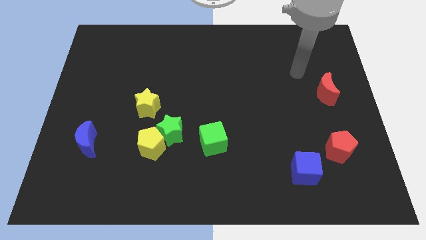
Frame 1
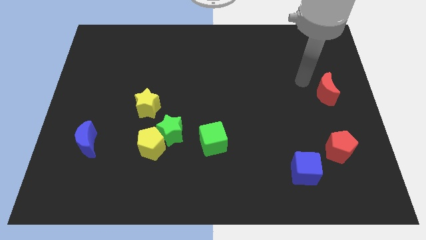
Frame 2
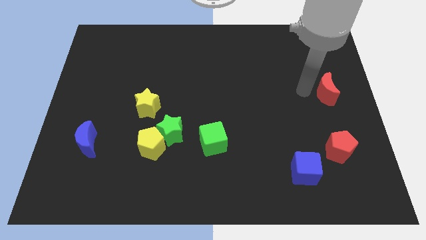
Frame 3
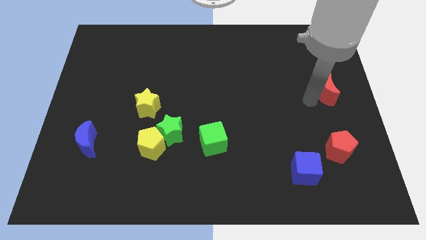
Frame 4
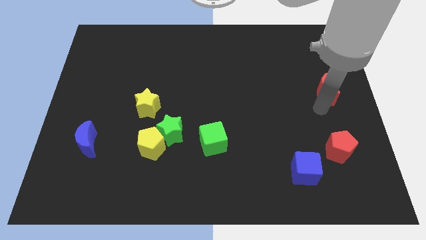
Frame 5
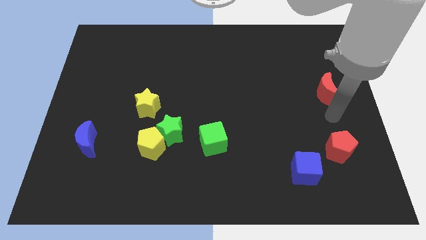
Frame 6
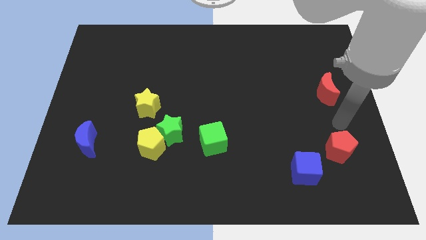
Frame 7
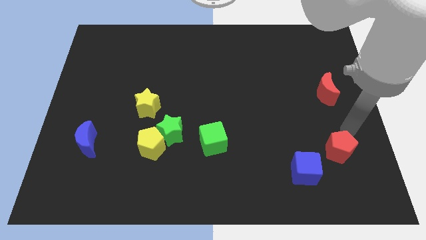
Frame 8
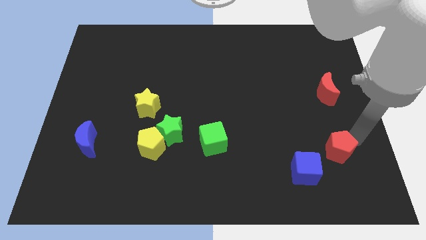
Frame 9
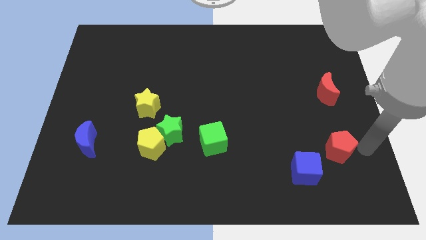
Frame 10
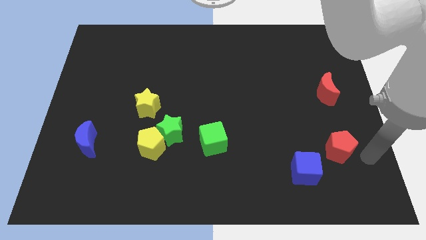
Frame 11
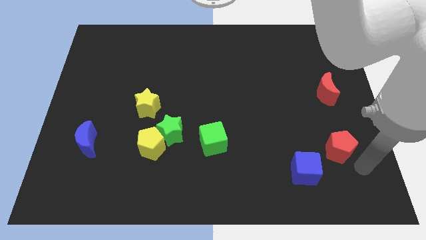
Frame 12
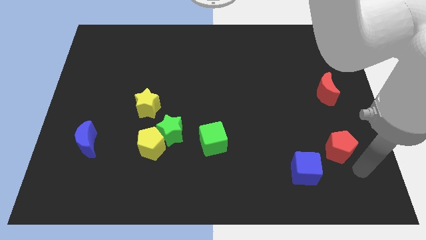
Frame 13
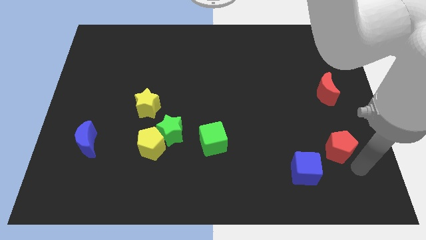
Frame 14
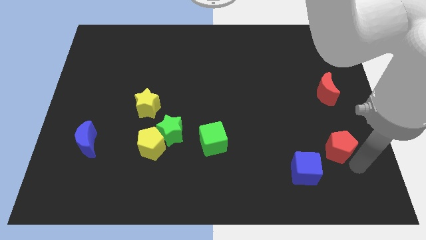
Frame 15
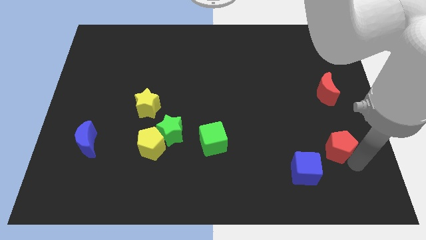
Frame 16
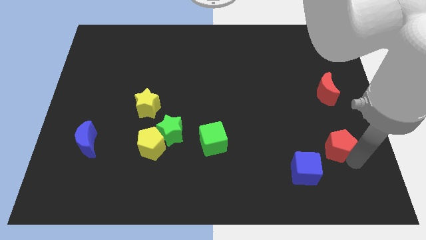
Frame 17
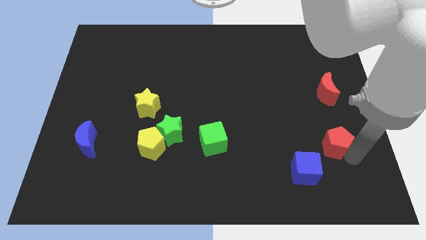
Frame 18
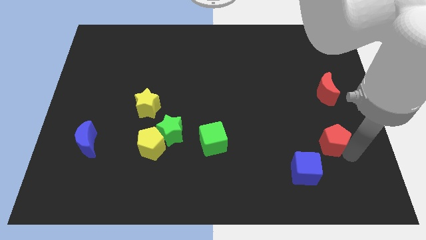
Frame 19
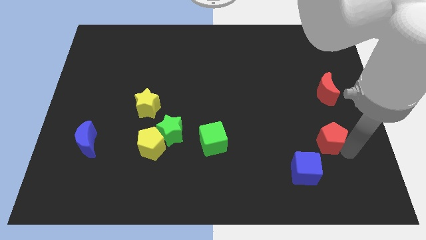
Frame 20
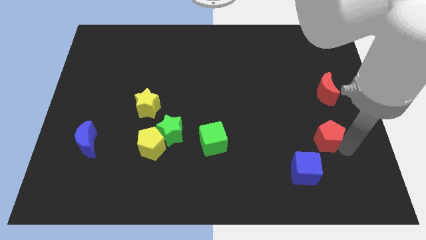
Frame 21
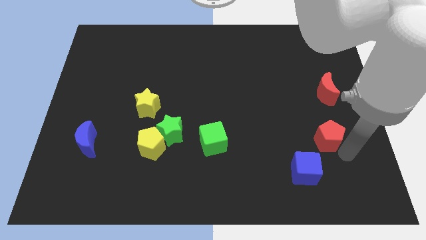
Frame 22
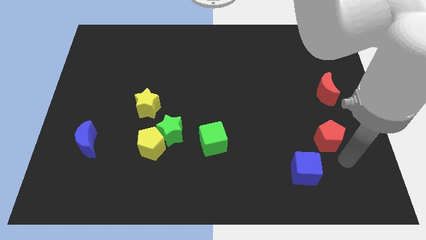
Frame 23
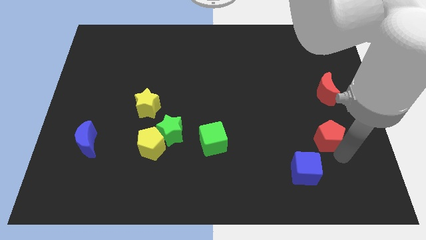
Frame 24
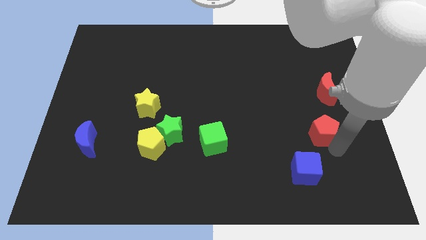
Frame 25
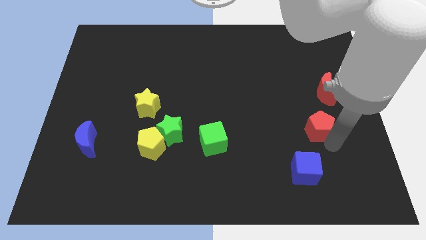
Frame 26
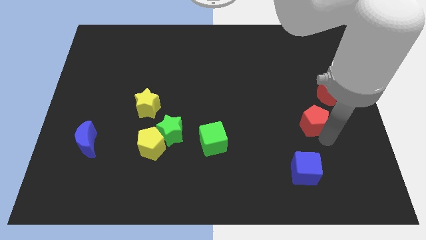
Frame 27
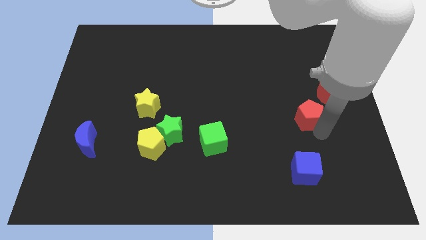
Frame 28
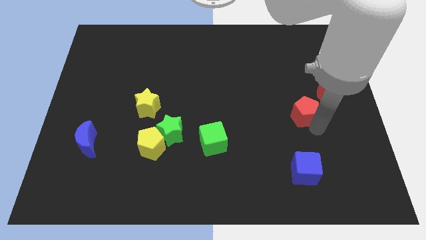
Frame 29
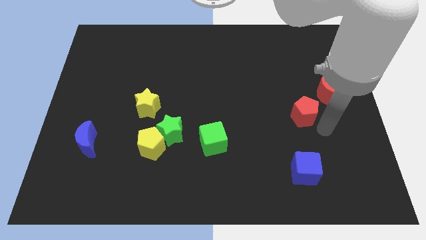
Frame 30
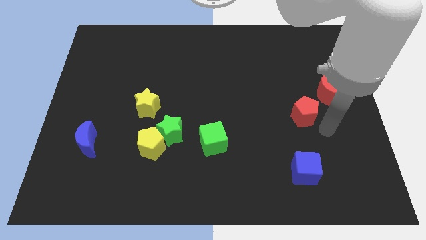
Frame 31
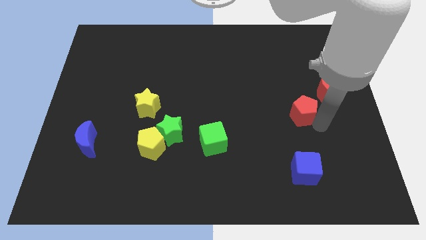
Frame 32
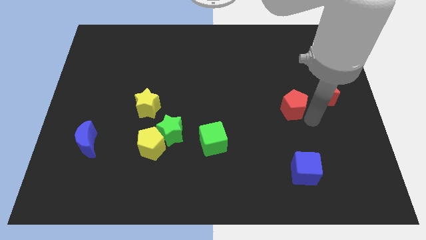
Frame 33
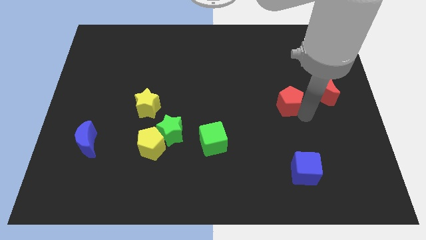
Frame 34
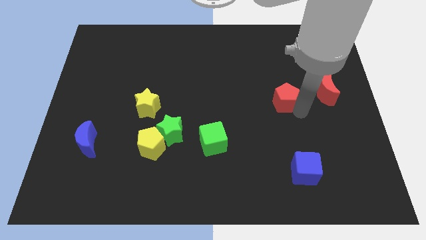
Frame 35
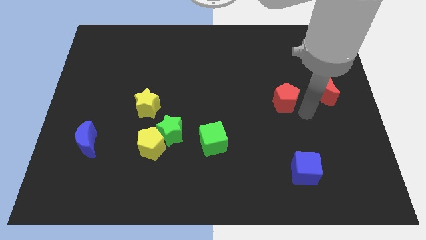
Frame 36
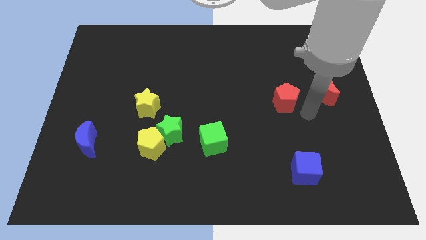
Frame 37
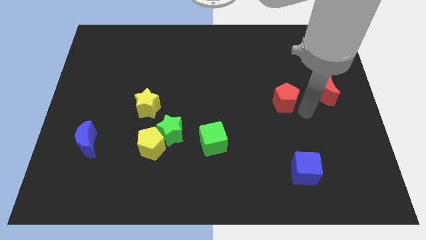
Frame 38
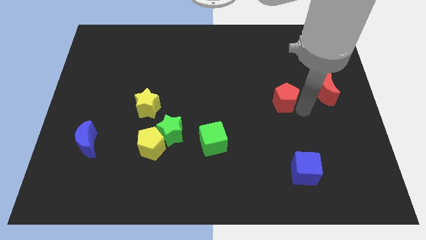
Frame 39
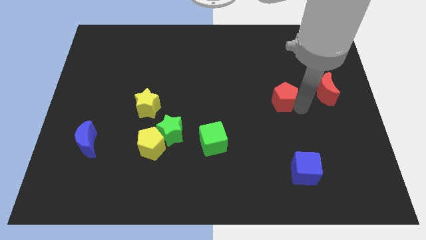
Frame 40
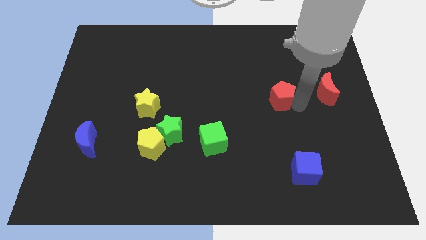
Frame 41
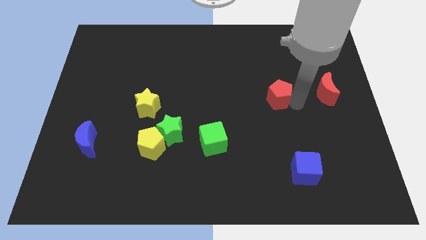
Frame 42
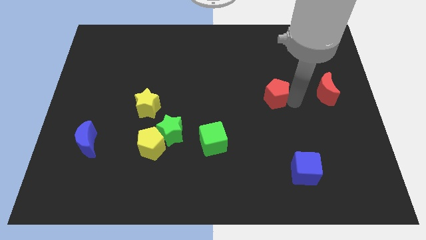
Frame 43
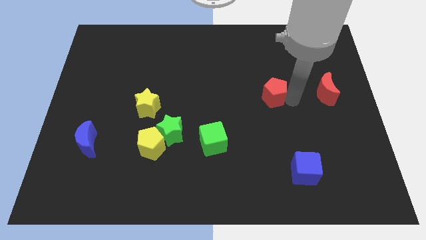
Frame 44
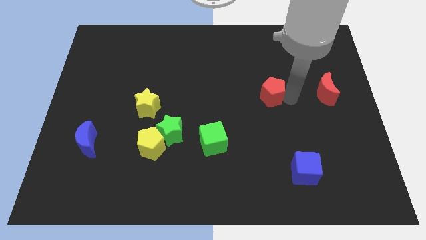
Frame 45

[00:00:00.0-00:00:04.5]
move the red pentagon diagonally up and to the left

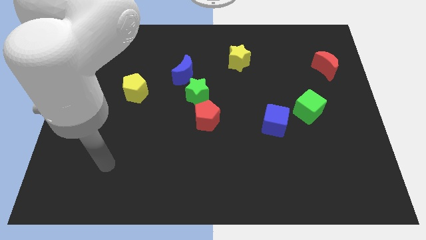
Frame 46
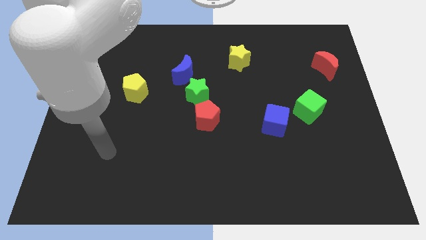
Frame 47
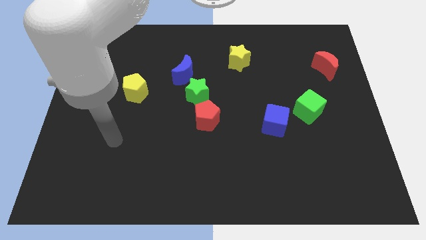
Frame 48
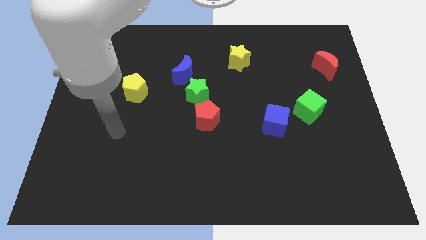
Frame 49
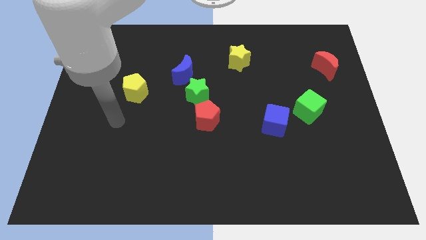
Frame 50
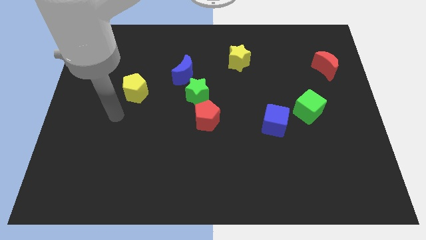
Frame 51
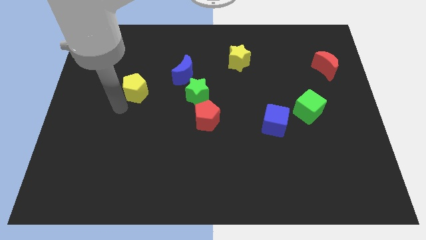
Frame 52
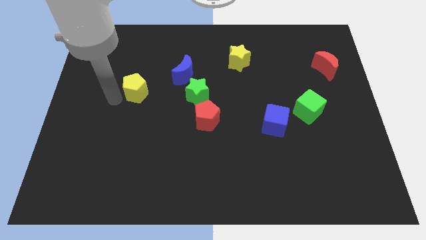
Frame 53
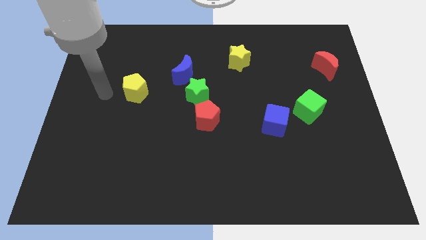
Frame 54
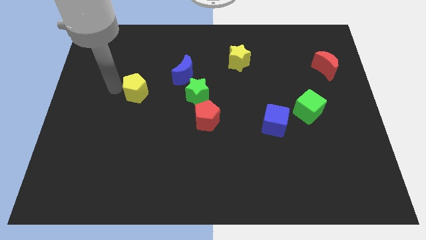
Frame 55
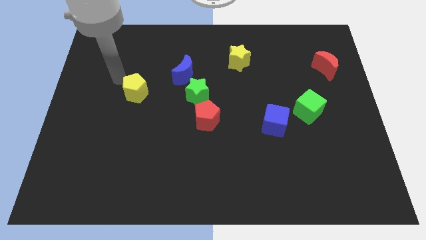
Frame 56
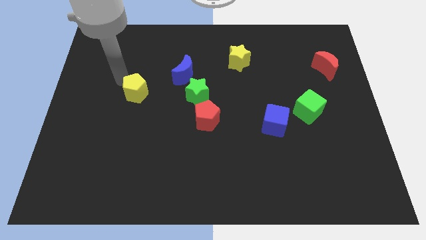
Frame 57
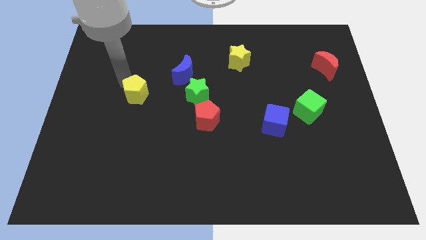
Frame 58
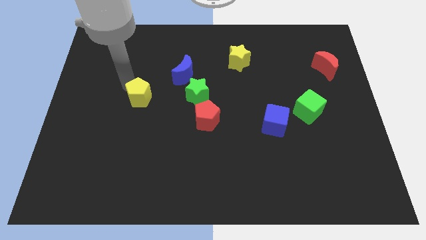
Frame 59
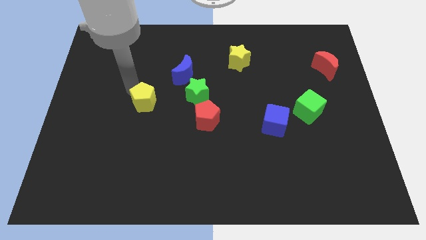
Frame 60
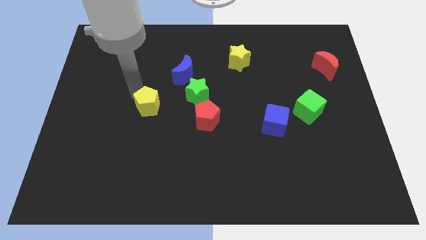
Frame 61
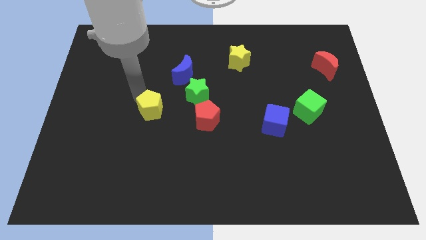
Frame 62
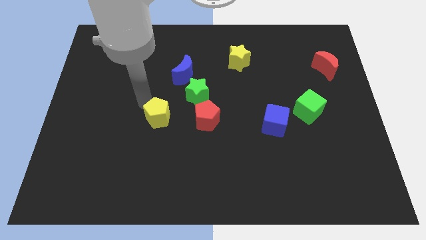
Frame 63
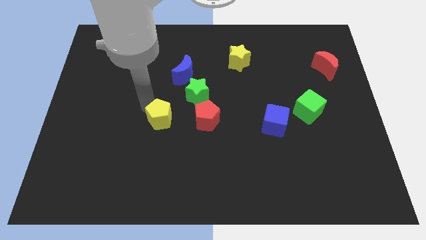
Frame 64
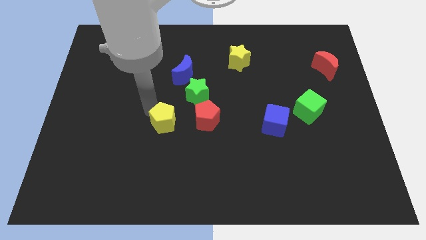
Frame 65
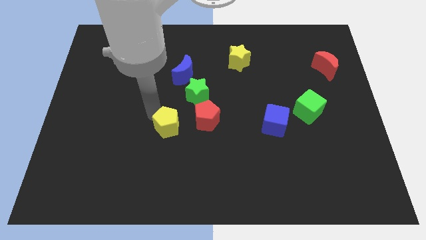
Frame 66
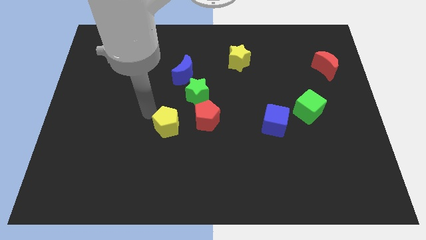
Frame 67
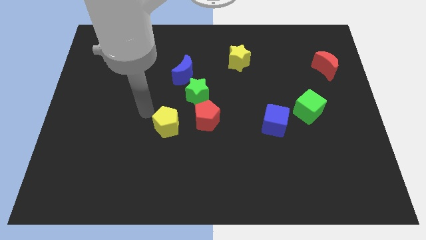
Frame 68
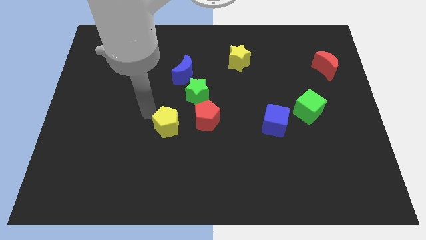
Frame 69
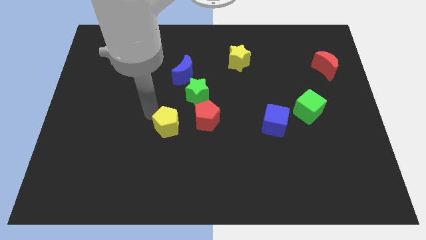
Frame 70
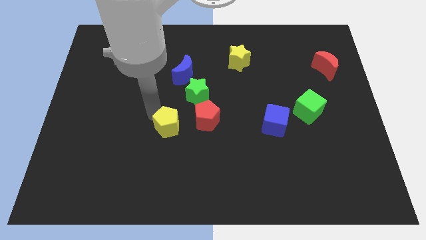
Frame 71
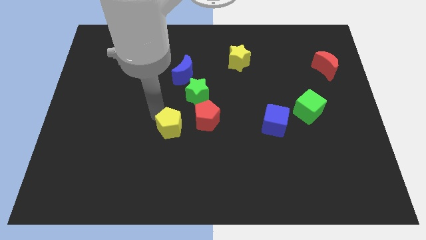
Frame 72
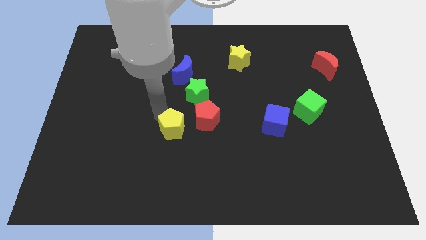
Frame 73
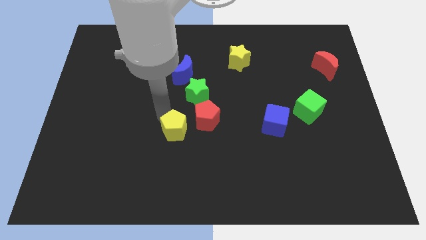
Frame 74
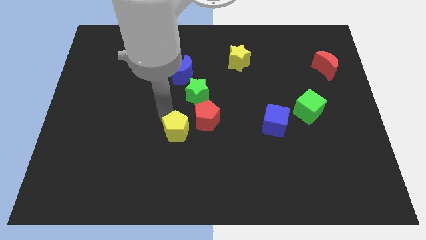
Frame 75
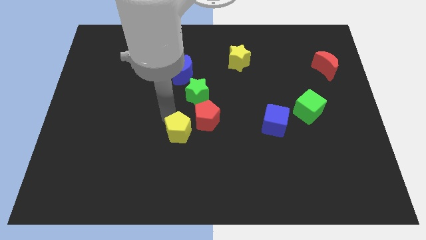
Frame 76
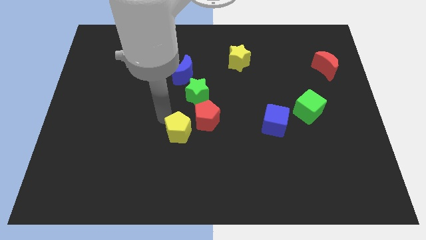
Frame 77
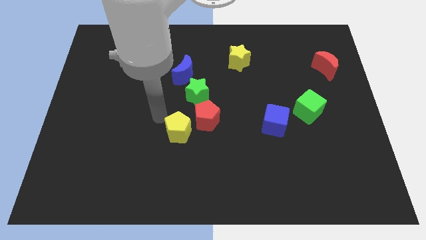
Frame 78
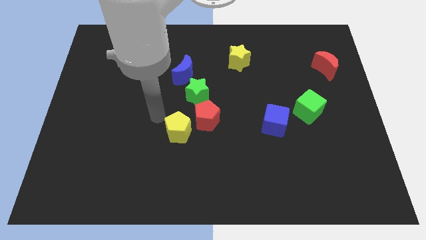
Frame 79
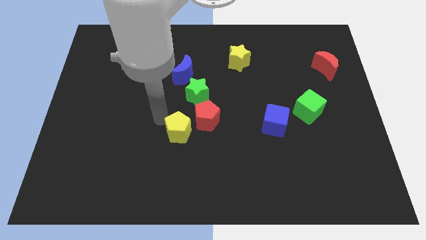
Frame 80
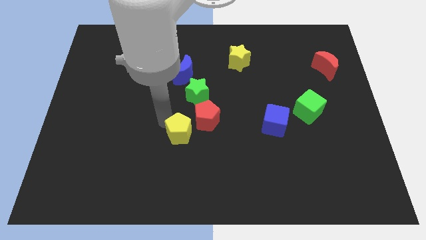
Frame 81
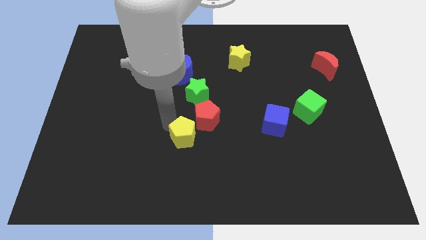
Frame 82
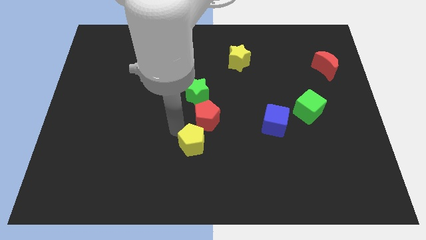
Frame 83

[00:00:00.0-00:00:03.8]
slide the yellow pentagon down and then to the right
